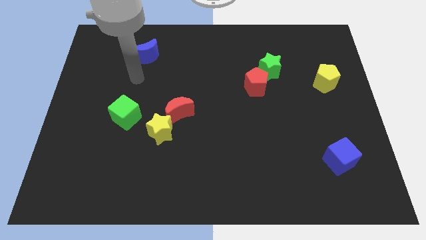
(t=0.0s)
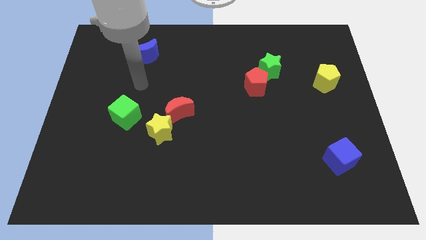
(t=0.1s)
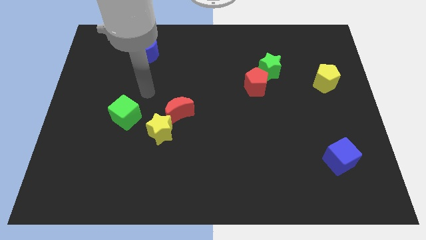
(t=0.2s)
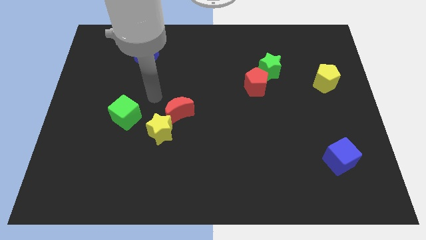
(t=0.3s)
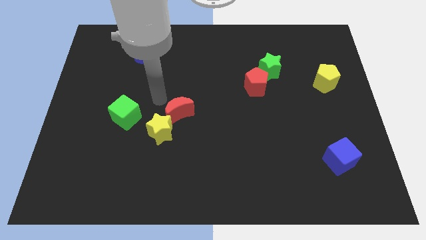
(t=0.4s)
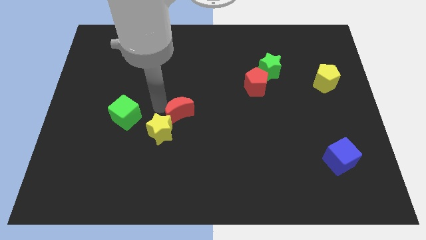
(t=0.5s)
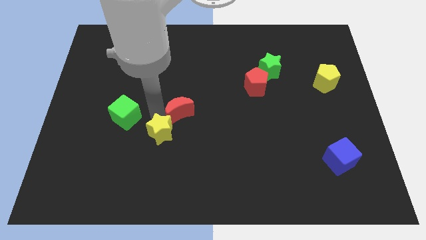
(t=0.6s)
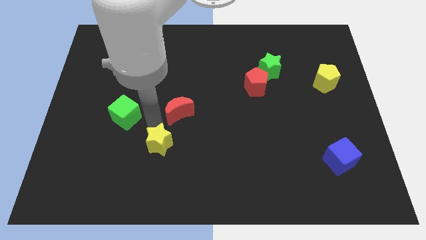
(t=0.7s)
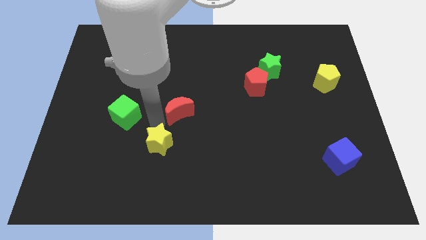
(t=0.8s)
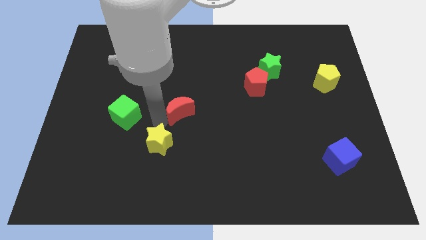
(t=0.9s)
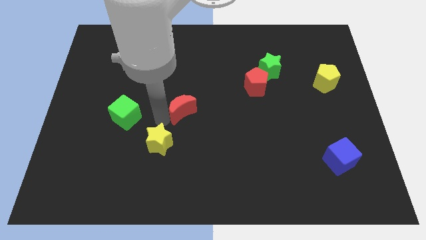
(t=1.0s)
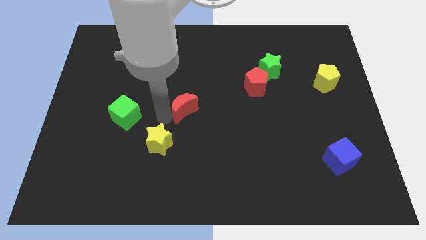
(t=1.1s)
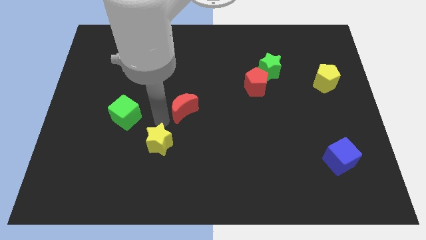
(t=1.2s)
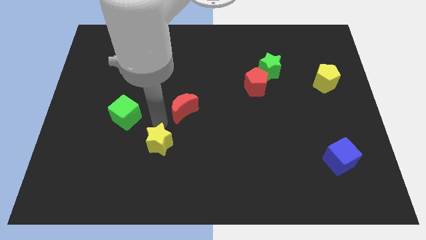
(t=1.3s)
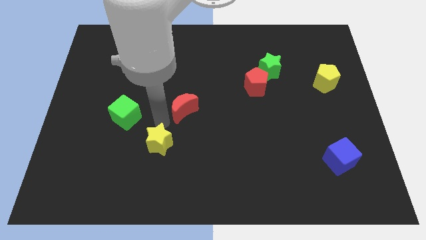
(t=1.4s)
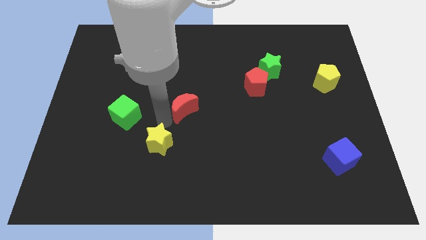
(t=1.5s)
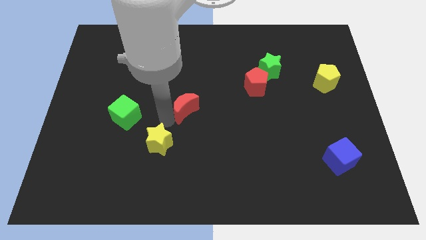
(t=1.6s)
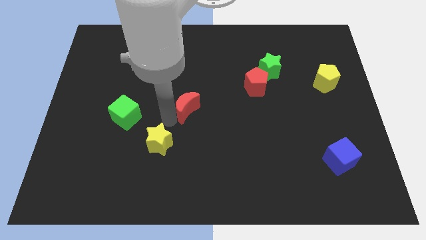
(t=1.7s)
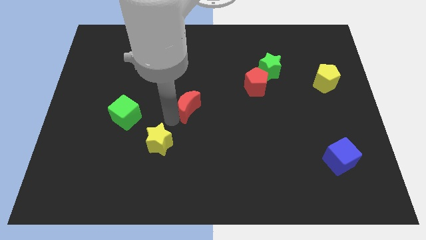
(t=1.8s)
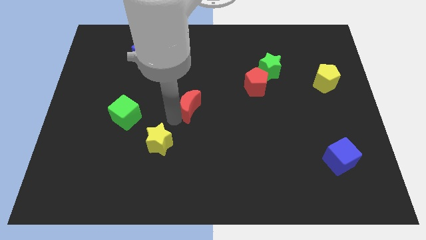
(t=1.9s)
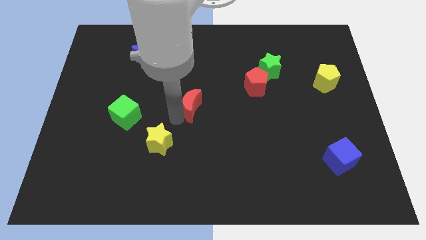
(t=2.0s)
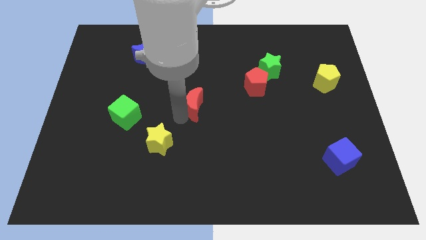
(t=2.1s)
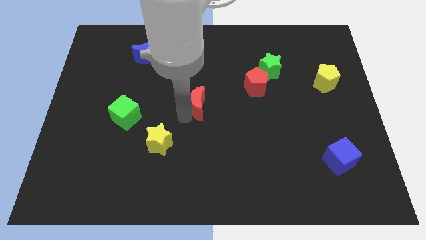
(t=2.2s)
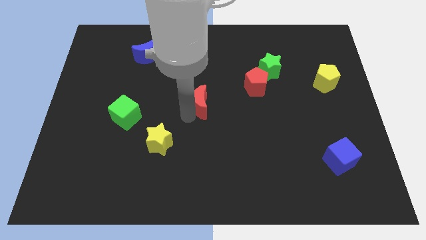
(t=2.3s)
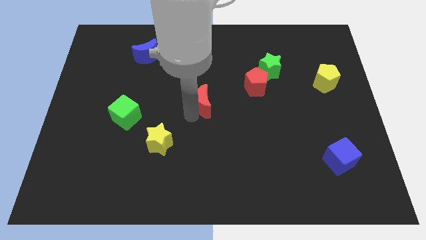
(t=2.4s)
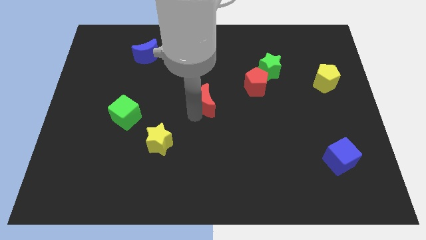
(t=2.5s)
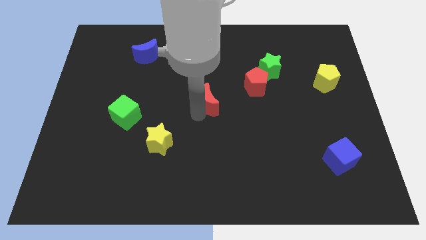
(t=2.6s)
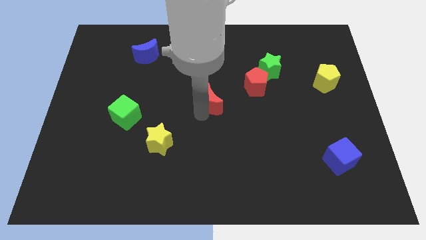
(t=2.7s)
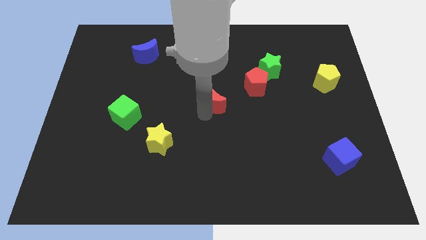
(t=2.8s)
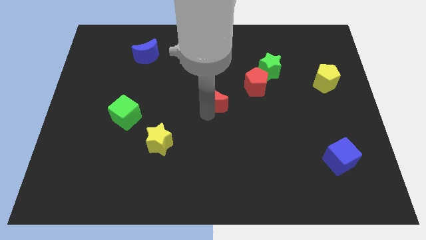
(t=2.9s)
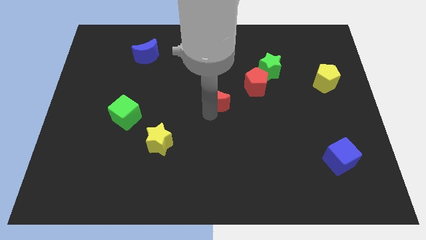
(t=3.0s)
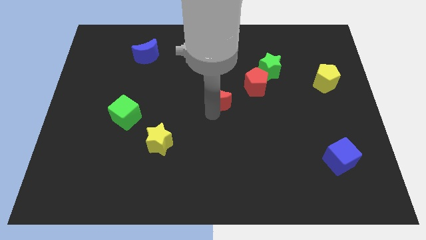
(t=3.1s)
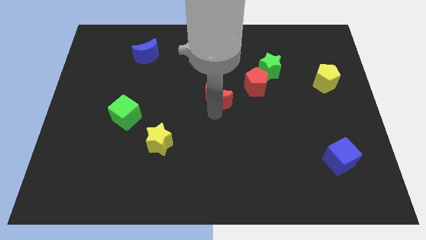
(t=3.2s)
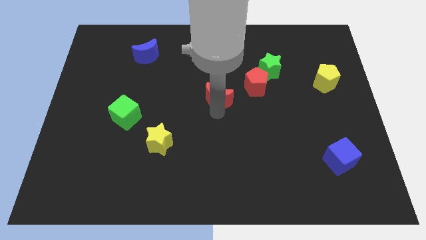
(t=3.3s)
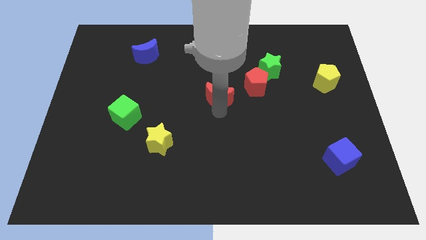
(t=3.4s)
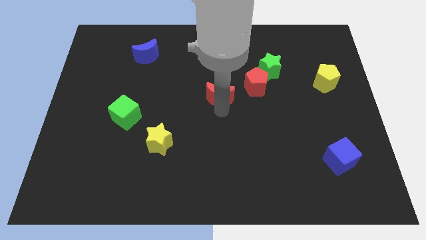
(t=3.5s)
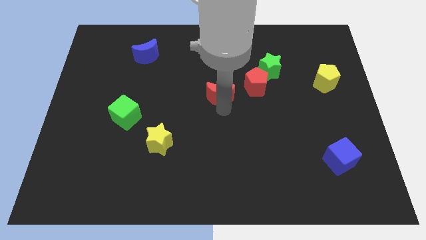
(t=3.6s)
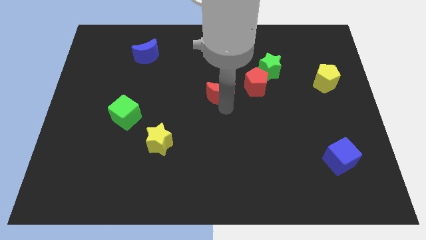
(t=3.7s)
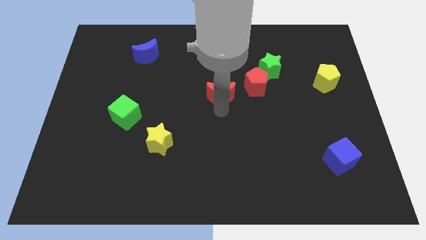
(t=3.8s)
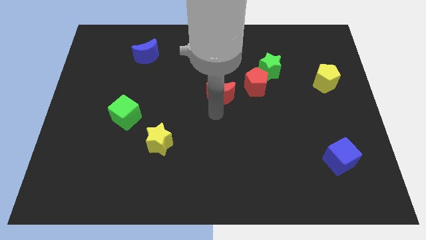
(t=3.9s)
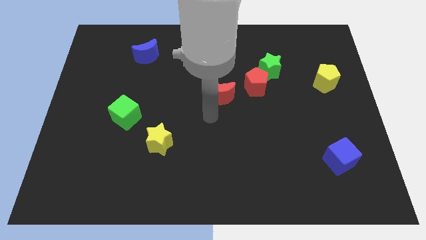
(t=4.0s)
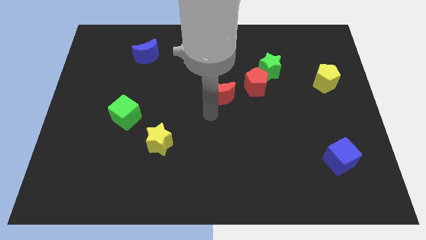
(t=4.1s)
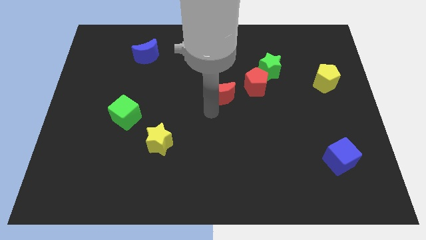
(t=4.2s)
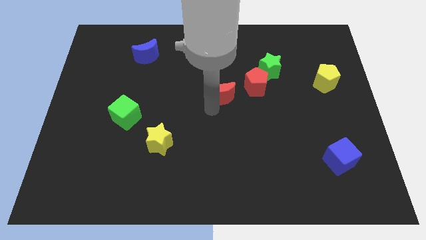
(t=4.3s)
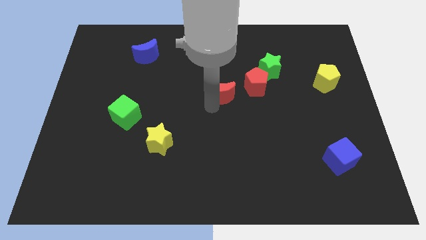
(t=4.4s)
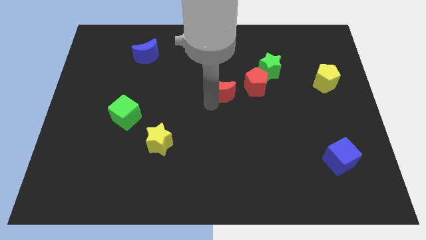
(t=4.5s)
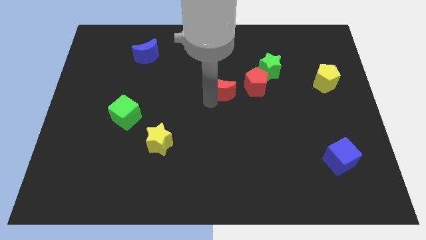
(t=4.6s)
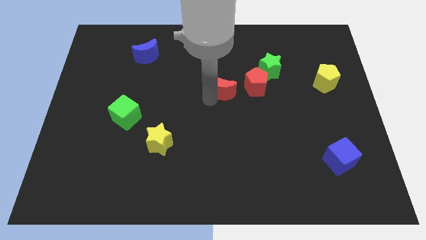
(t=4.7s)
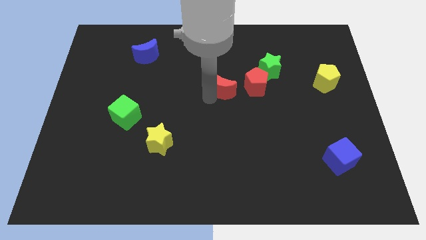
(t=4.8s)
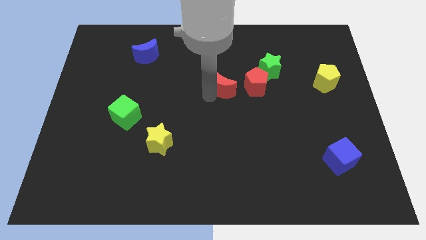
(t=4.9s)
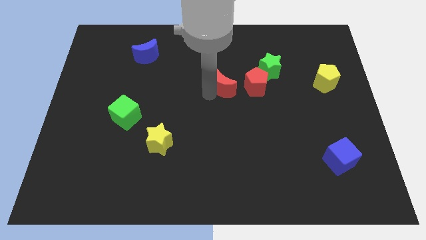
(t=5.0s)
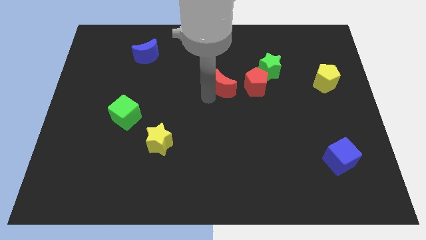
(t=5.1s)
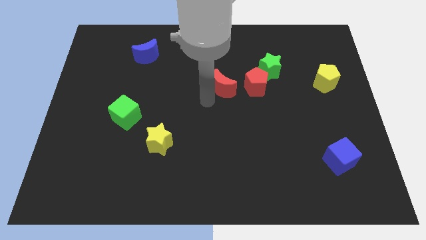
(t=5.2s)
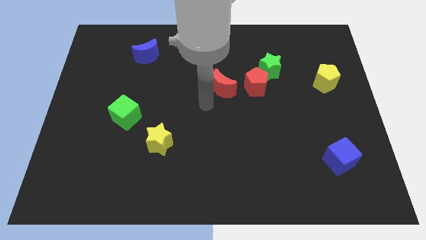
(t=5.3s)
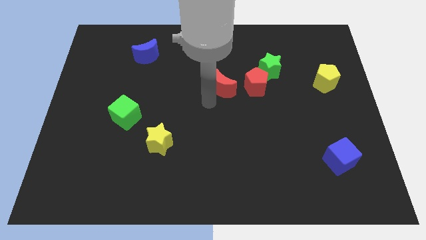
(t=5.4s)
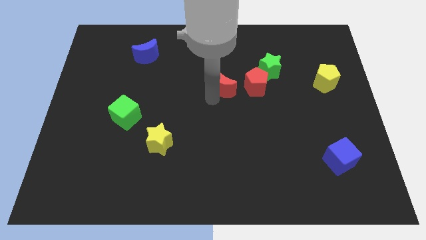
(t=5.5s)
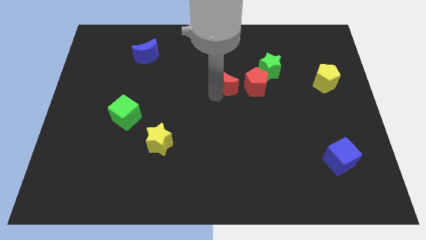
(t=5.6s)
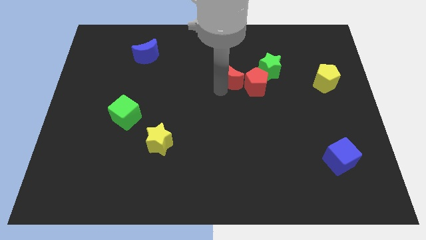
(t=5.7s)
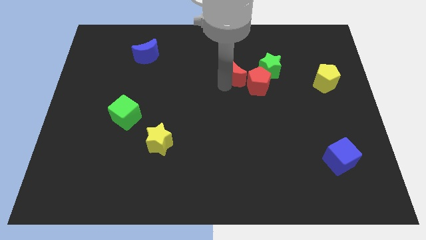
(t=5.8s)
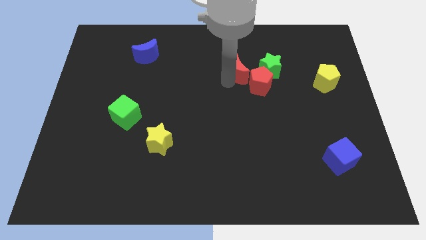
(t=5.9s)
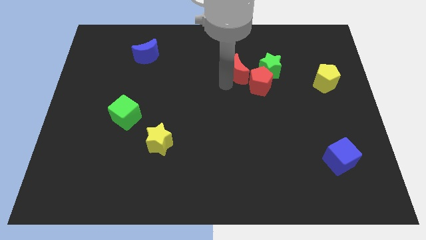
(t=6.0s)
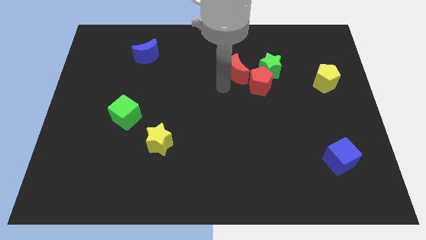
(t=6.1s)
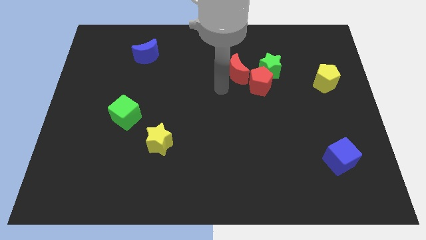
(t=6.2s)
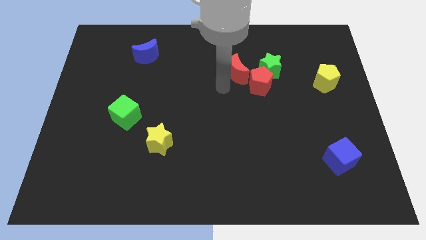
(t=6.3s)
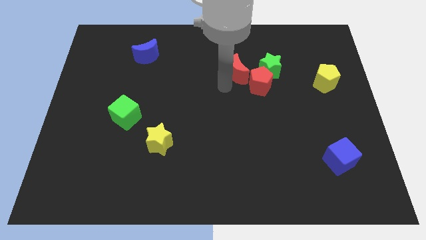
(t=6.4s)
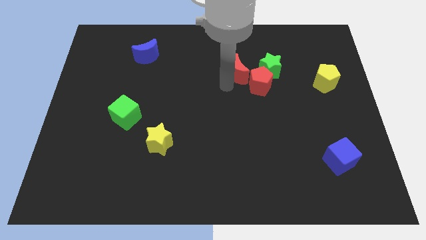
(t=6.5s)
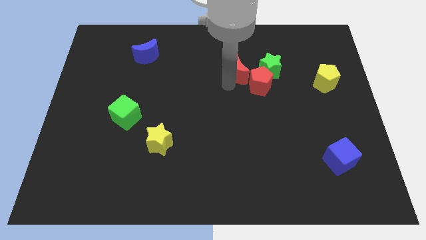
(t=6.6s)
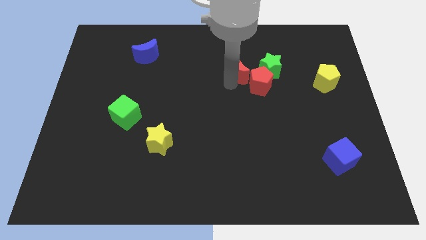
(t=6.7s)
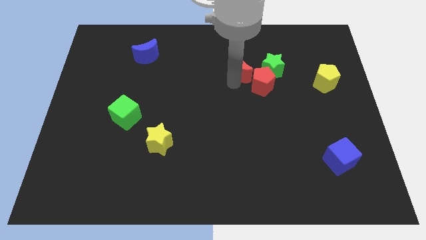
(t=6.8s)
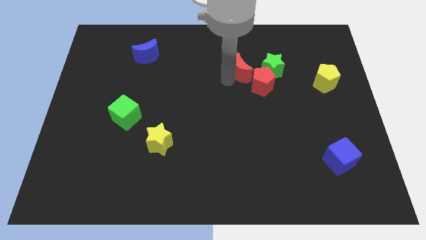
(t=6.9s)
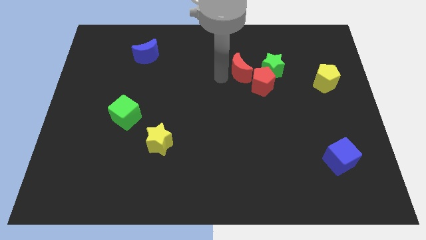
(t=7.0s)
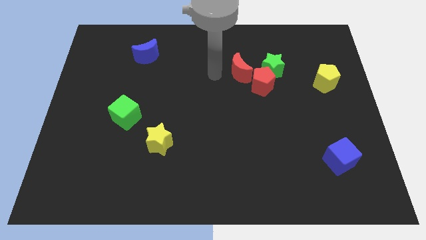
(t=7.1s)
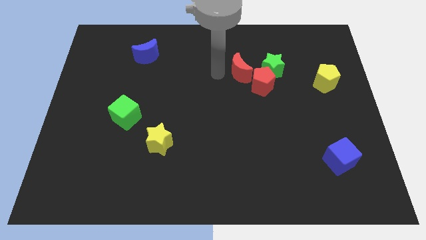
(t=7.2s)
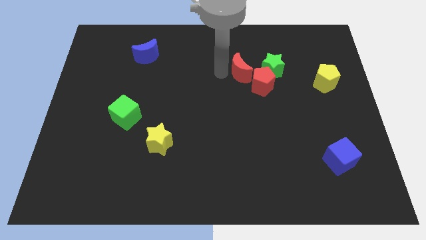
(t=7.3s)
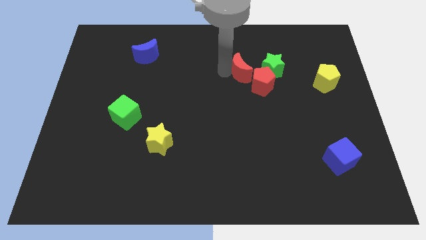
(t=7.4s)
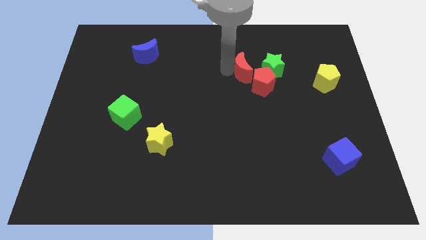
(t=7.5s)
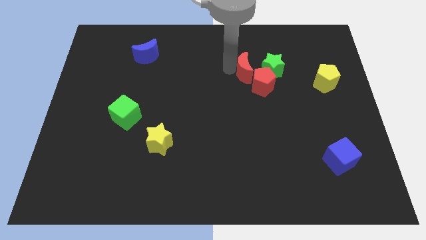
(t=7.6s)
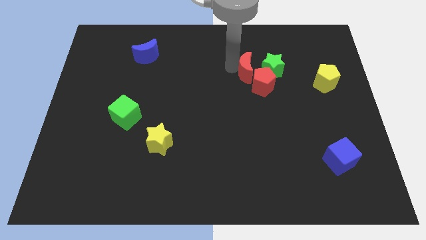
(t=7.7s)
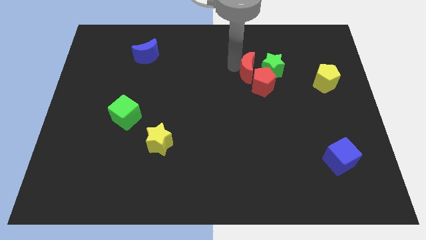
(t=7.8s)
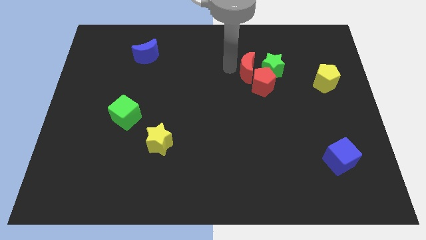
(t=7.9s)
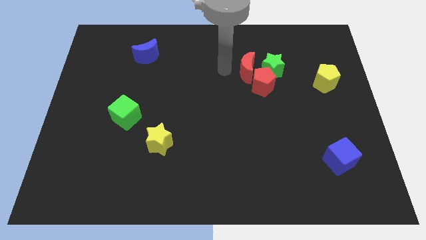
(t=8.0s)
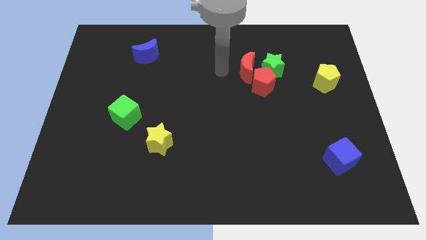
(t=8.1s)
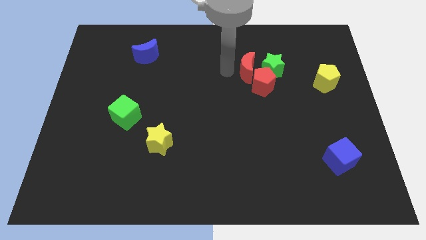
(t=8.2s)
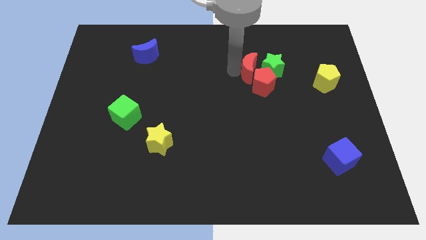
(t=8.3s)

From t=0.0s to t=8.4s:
move the red moon next to the green star
